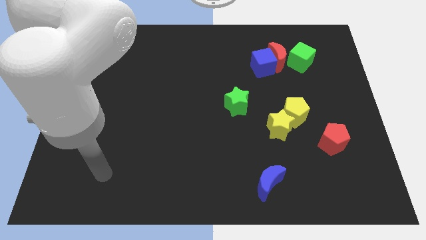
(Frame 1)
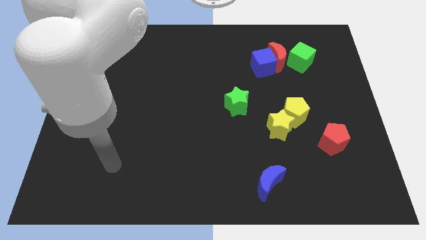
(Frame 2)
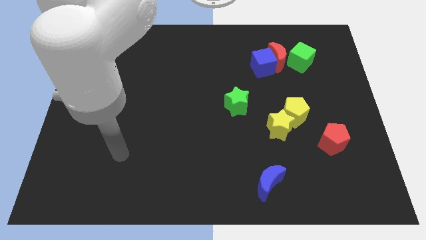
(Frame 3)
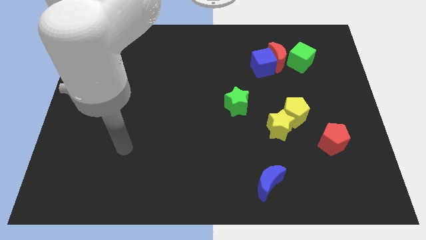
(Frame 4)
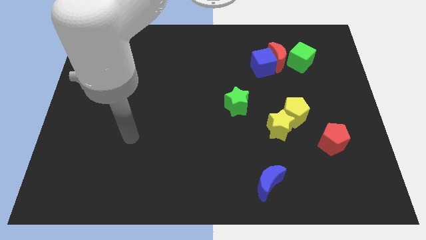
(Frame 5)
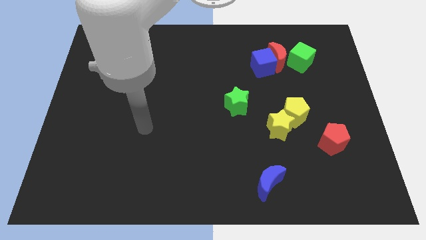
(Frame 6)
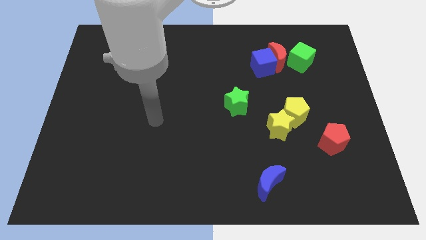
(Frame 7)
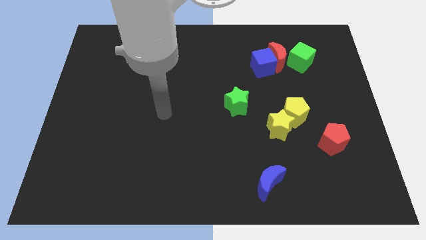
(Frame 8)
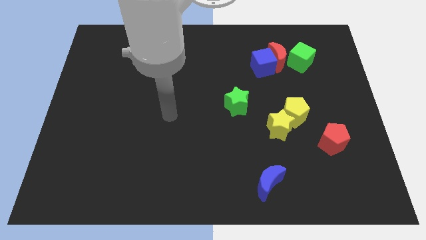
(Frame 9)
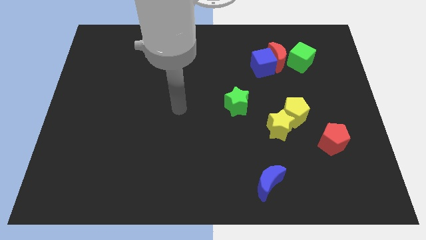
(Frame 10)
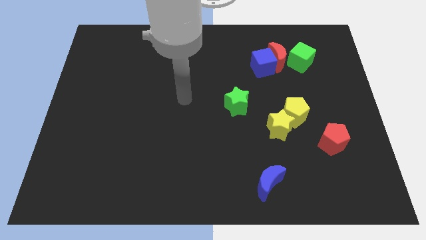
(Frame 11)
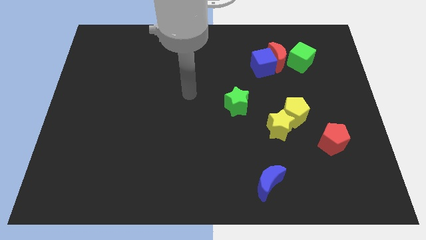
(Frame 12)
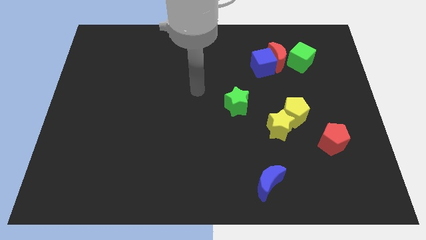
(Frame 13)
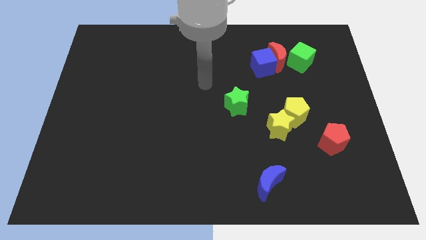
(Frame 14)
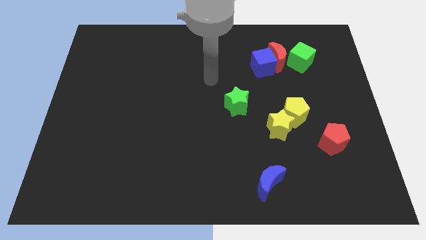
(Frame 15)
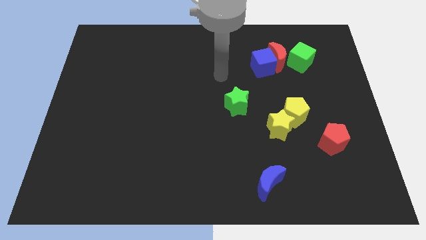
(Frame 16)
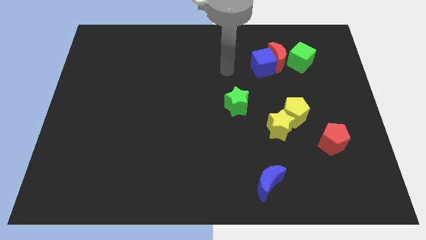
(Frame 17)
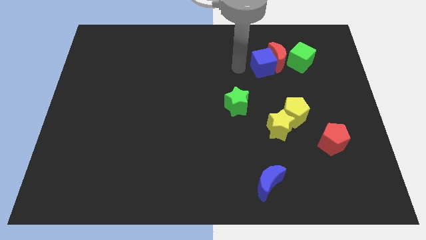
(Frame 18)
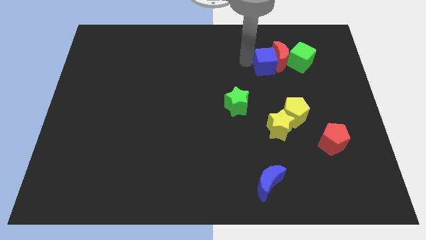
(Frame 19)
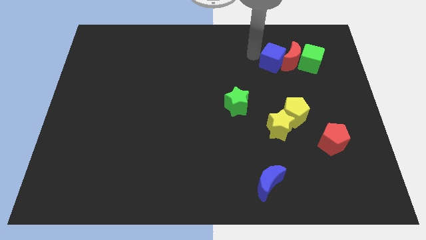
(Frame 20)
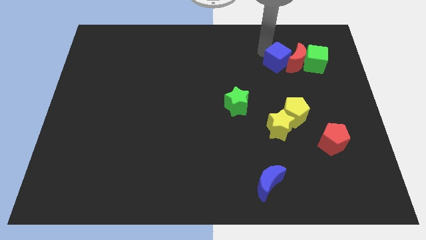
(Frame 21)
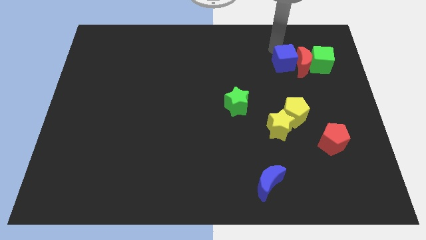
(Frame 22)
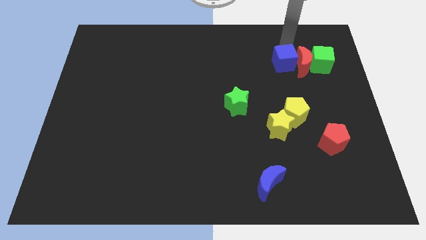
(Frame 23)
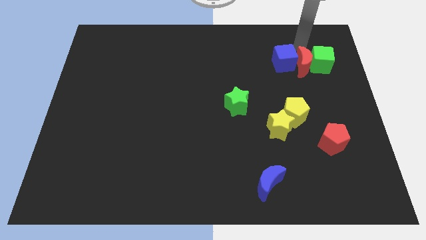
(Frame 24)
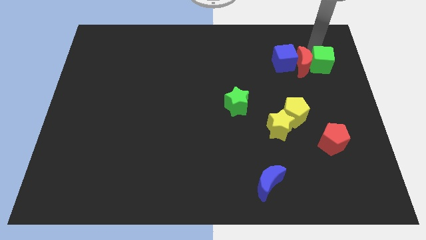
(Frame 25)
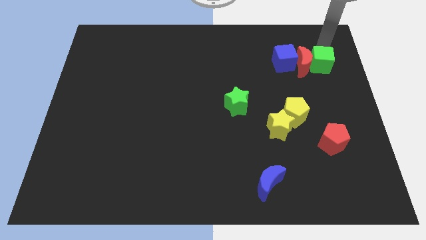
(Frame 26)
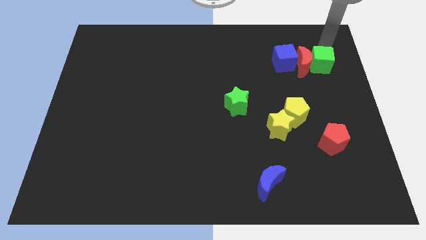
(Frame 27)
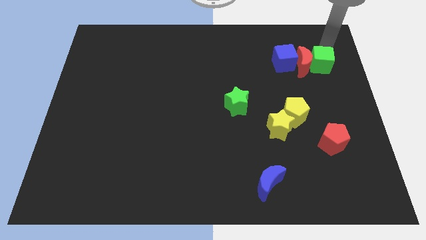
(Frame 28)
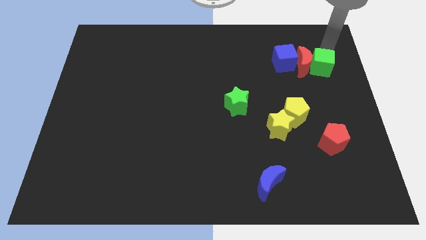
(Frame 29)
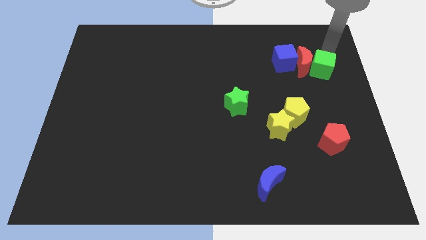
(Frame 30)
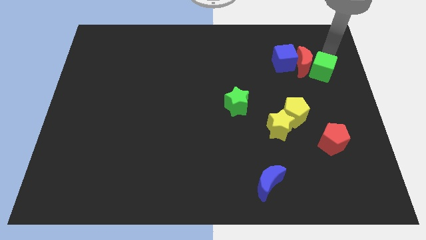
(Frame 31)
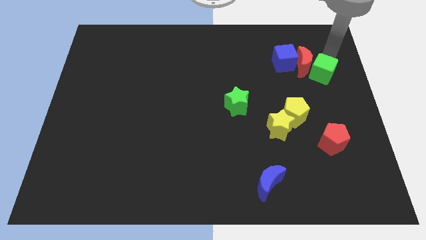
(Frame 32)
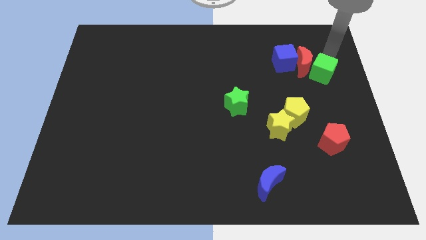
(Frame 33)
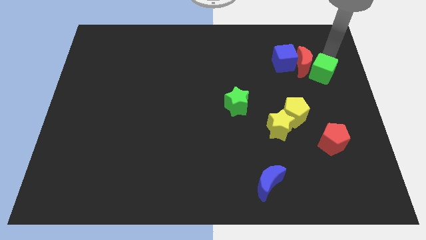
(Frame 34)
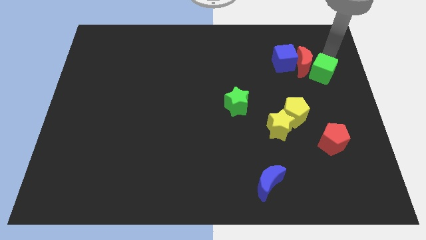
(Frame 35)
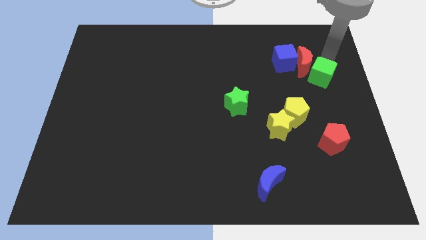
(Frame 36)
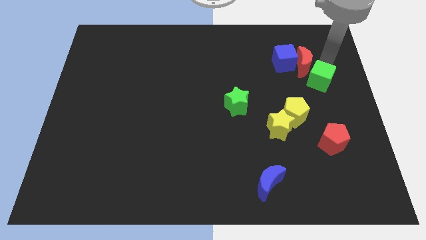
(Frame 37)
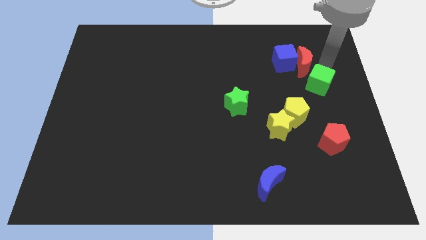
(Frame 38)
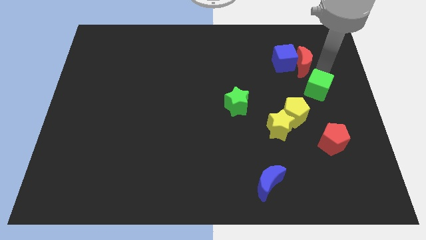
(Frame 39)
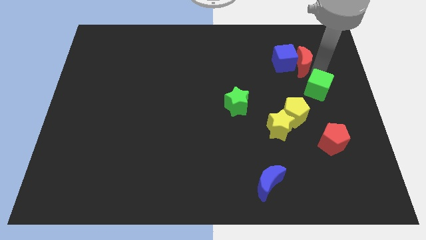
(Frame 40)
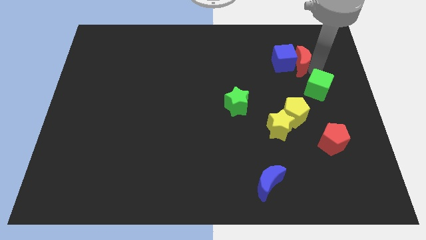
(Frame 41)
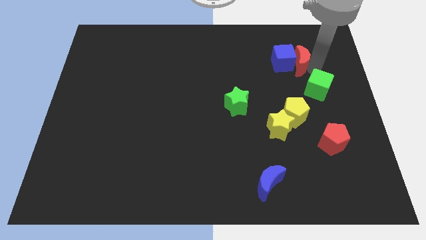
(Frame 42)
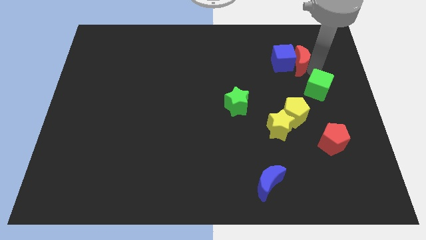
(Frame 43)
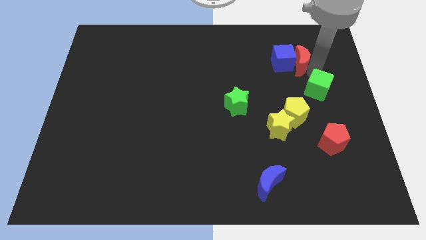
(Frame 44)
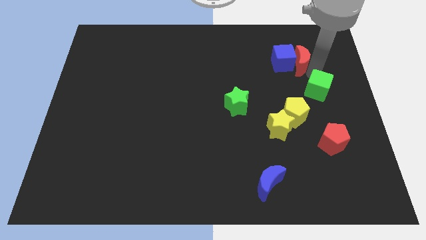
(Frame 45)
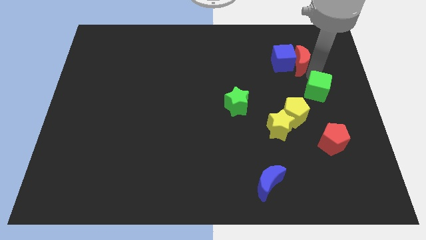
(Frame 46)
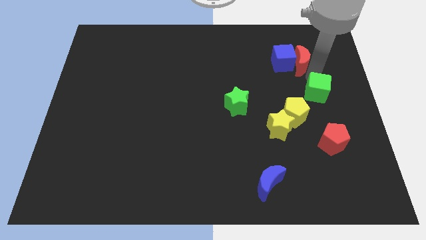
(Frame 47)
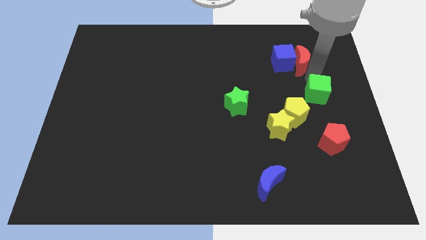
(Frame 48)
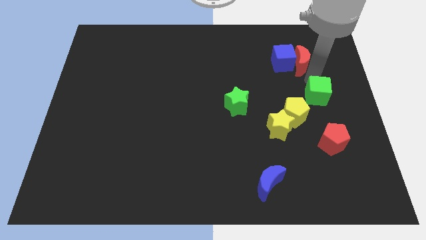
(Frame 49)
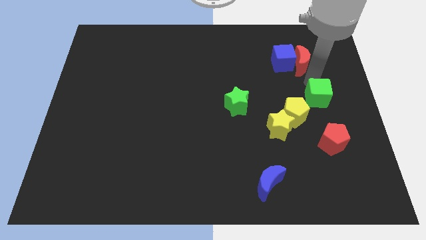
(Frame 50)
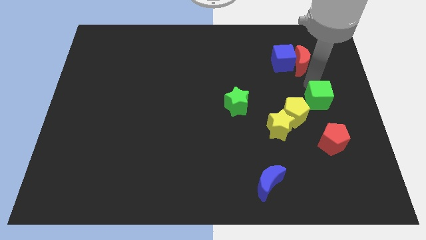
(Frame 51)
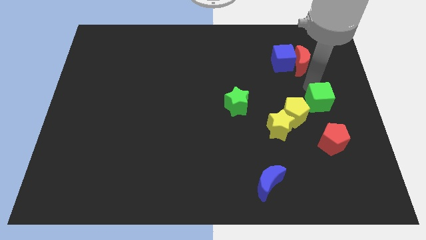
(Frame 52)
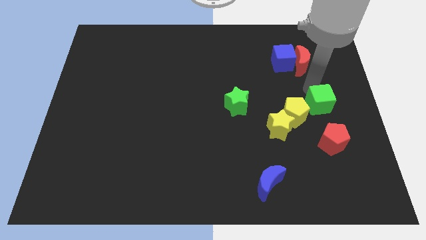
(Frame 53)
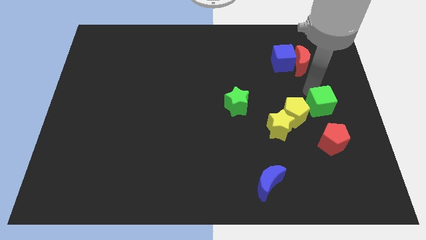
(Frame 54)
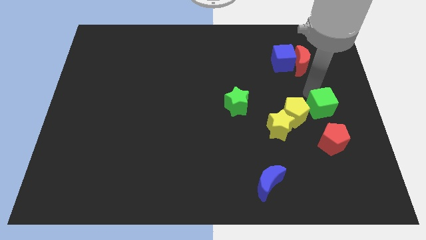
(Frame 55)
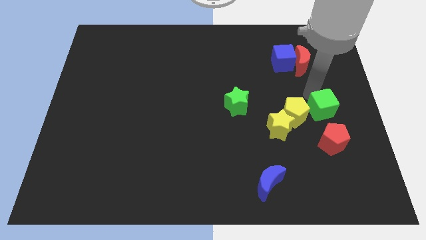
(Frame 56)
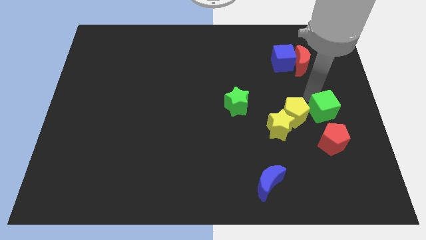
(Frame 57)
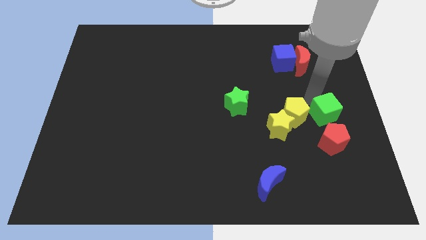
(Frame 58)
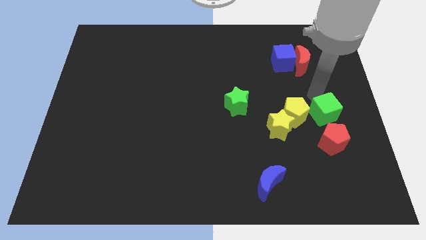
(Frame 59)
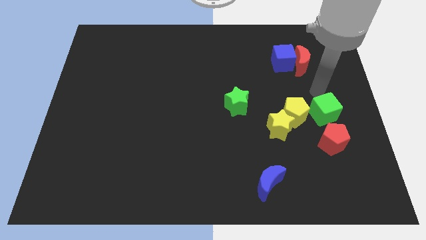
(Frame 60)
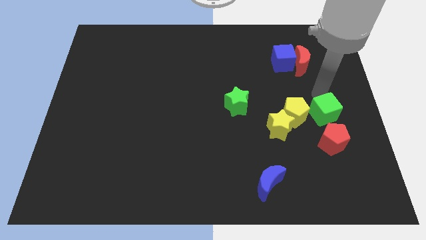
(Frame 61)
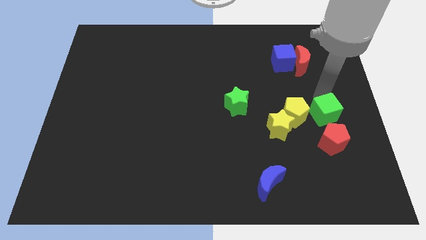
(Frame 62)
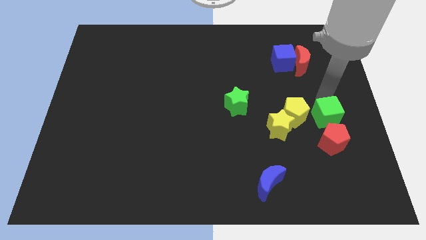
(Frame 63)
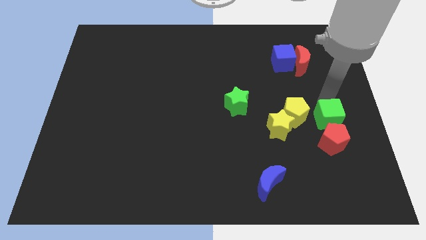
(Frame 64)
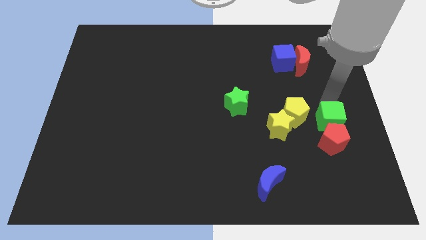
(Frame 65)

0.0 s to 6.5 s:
move the green cube close to the red pentagon

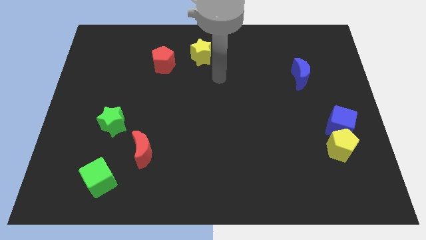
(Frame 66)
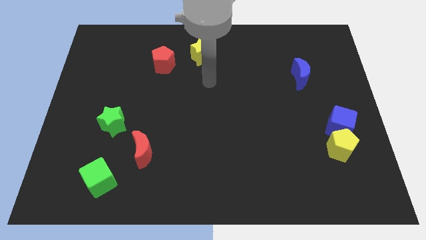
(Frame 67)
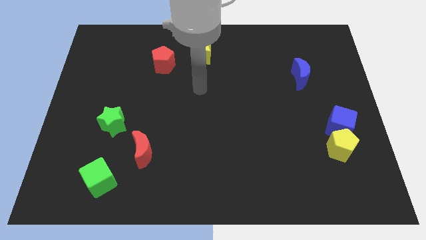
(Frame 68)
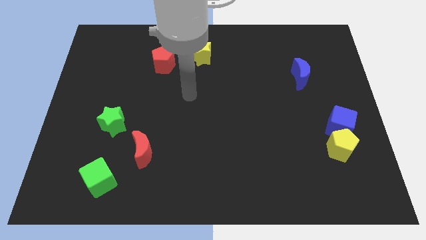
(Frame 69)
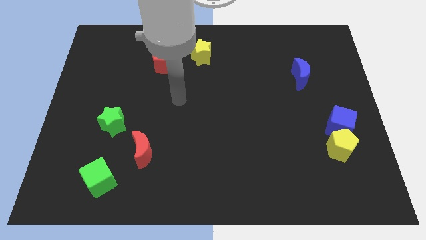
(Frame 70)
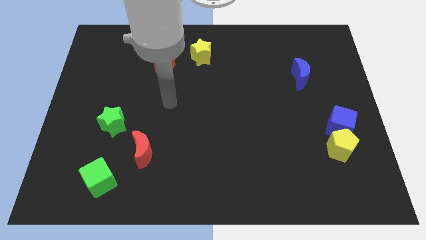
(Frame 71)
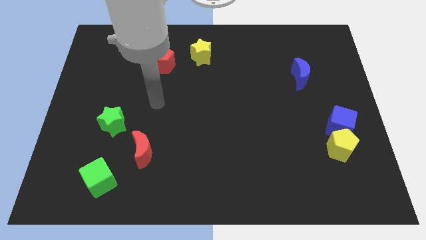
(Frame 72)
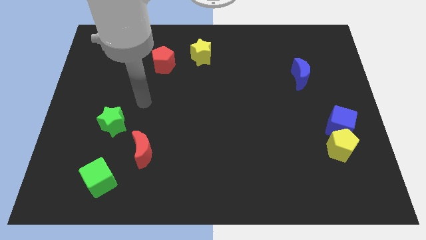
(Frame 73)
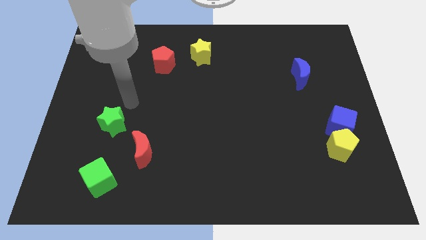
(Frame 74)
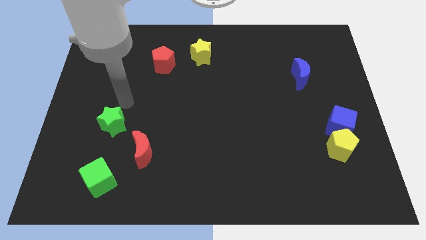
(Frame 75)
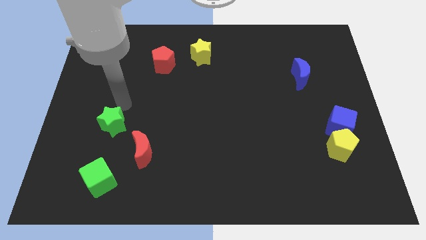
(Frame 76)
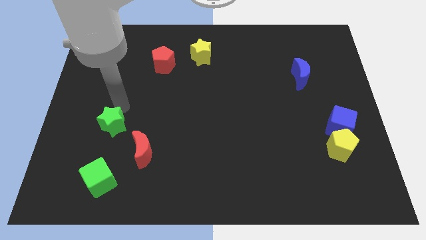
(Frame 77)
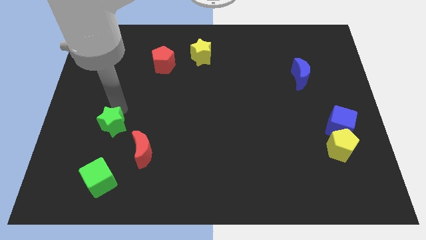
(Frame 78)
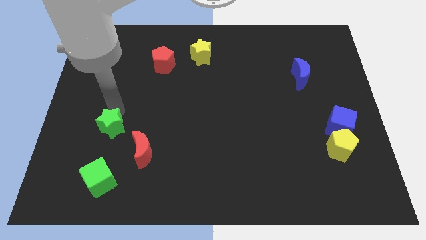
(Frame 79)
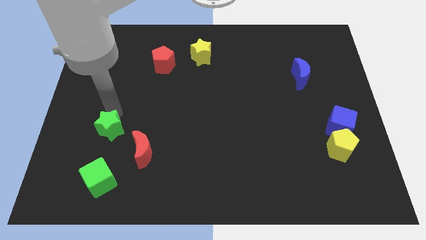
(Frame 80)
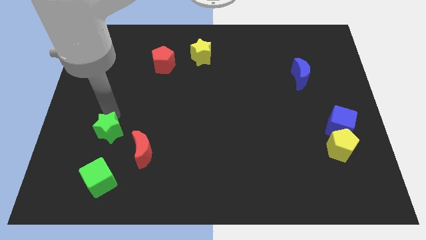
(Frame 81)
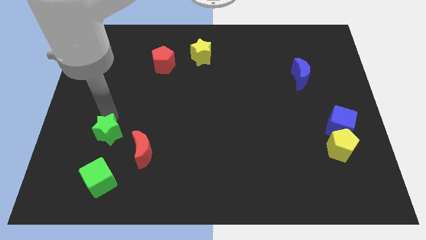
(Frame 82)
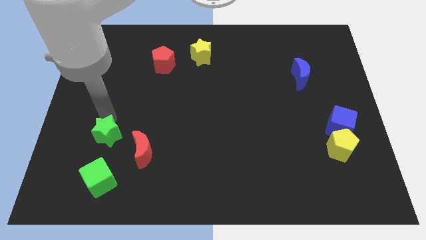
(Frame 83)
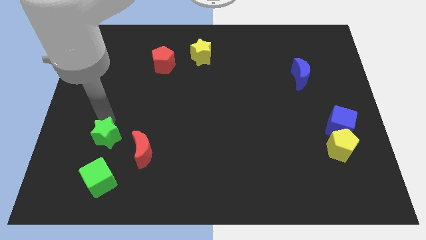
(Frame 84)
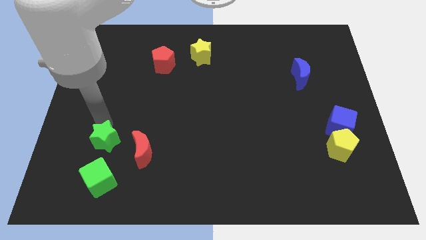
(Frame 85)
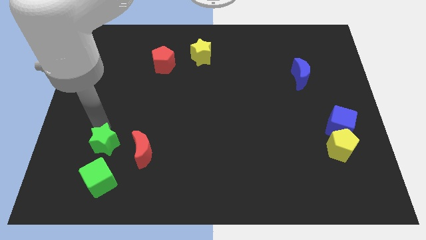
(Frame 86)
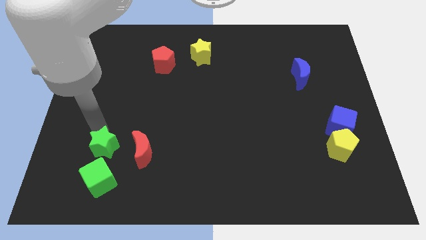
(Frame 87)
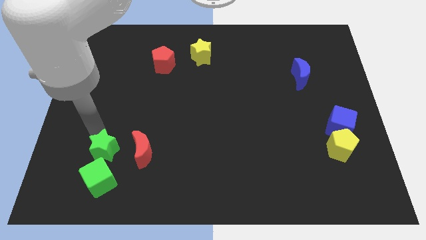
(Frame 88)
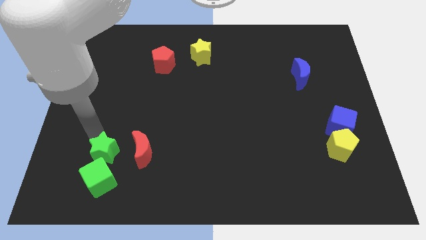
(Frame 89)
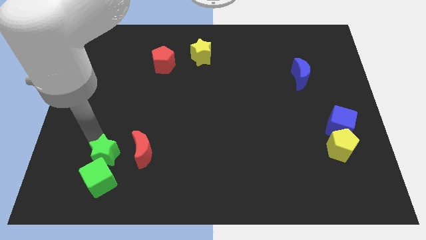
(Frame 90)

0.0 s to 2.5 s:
move the green star towards the green cube
